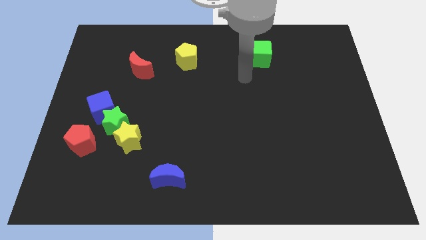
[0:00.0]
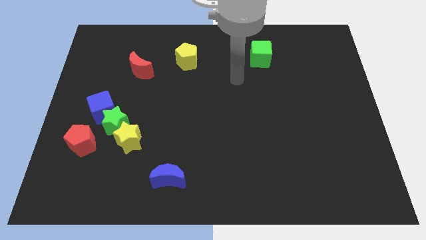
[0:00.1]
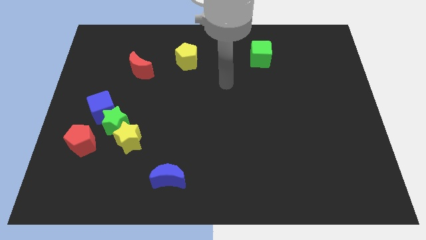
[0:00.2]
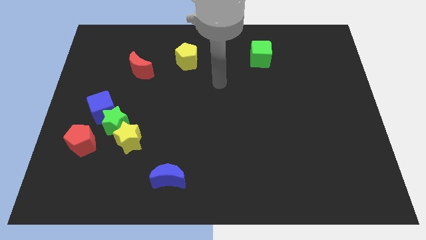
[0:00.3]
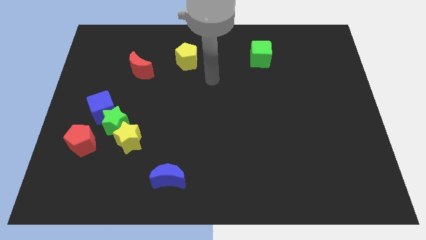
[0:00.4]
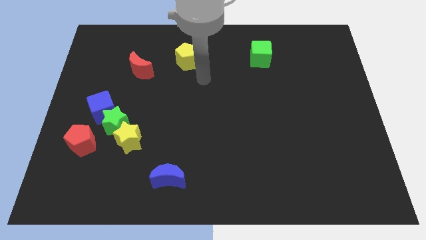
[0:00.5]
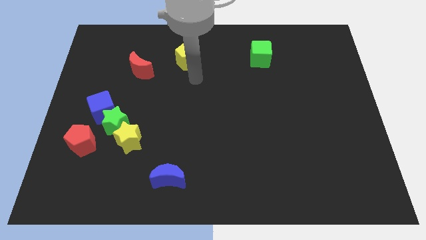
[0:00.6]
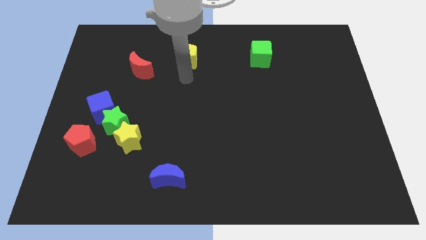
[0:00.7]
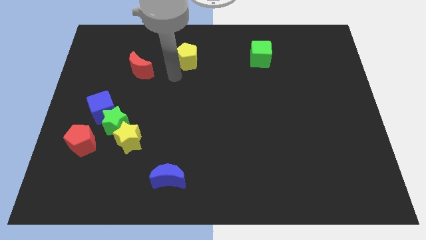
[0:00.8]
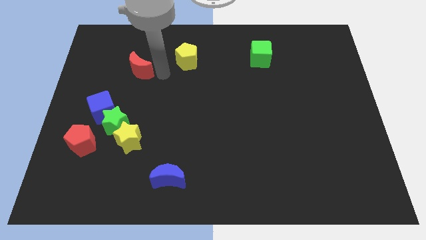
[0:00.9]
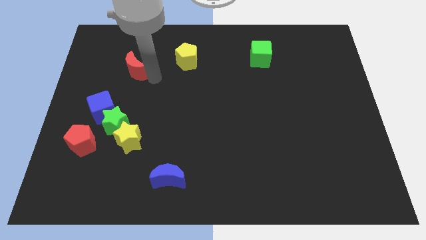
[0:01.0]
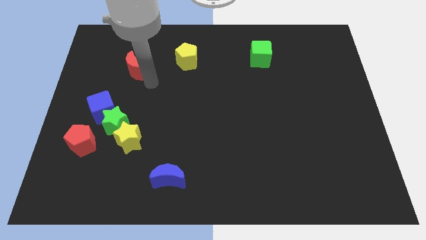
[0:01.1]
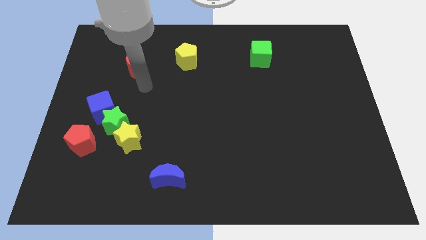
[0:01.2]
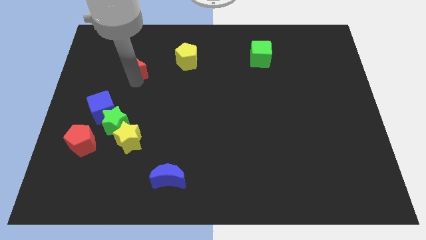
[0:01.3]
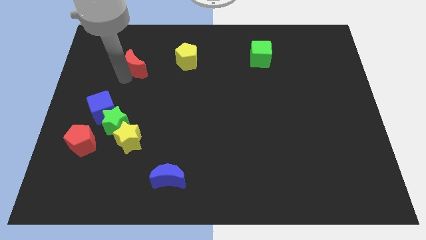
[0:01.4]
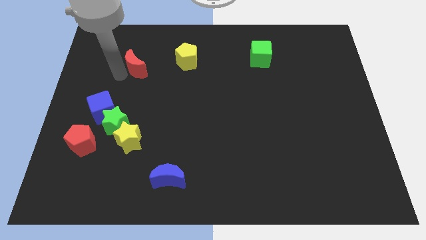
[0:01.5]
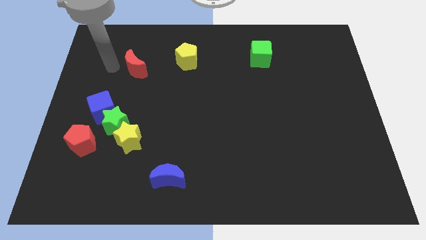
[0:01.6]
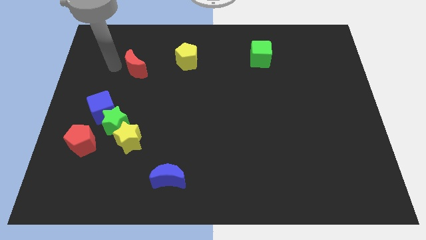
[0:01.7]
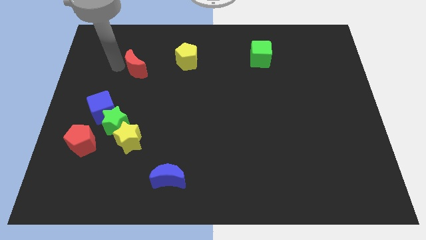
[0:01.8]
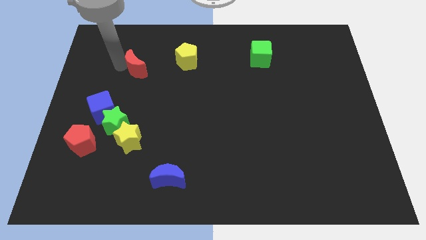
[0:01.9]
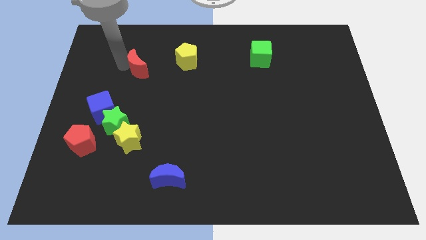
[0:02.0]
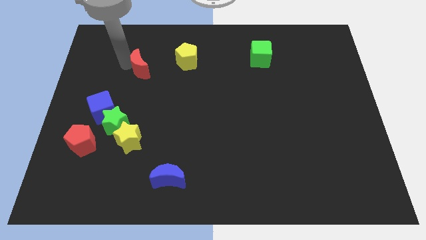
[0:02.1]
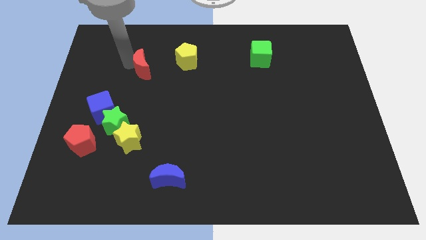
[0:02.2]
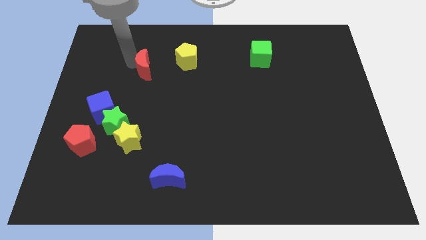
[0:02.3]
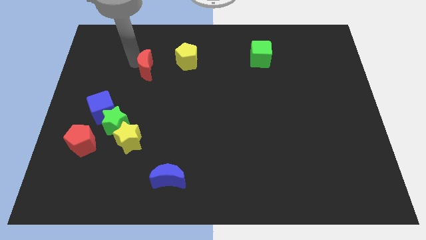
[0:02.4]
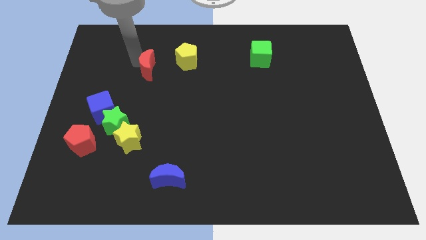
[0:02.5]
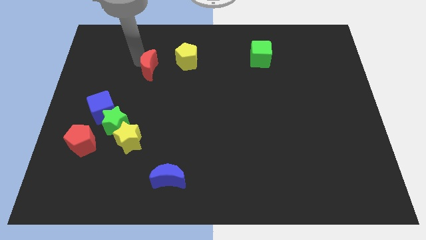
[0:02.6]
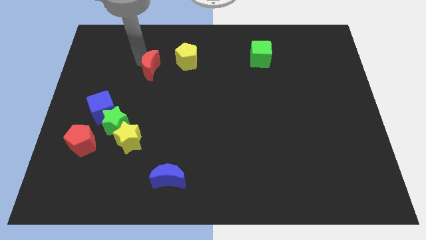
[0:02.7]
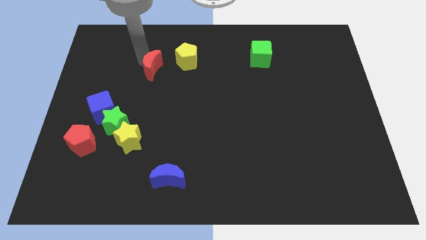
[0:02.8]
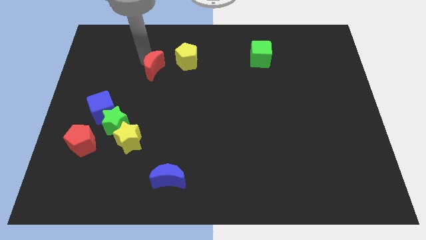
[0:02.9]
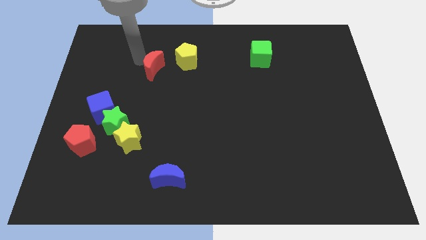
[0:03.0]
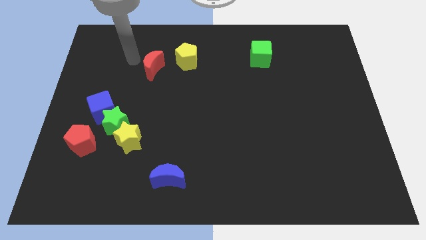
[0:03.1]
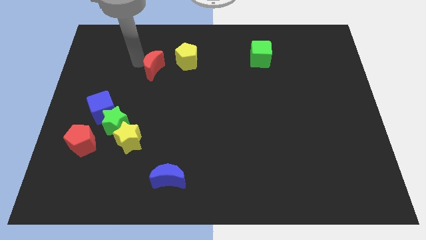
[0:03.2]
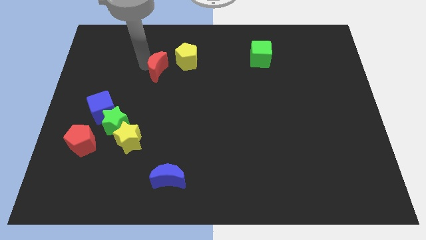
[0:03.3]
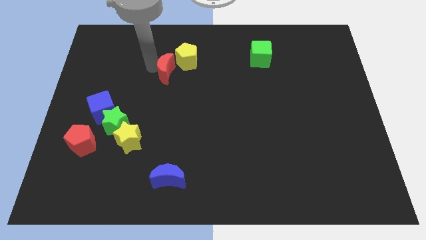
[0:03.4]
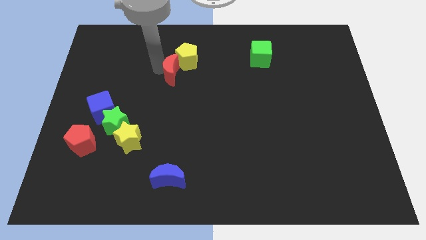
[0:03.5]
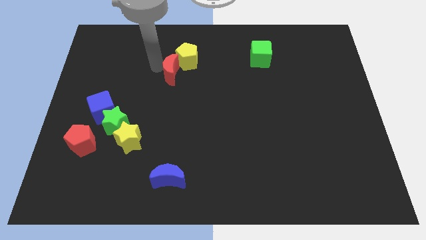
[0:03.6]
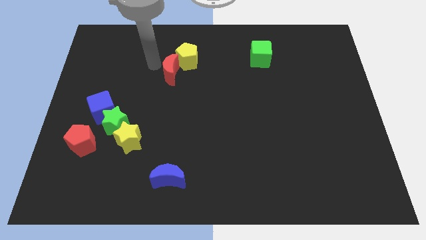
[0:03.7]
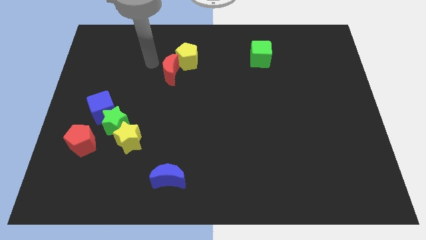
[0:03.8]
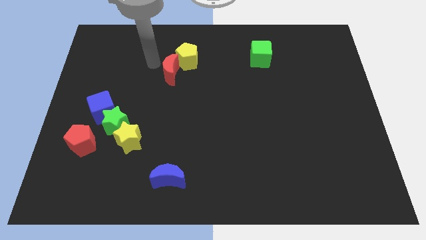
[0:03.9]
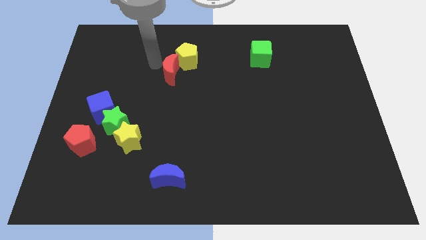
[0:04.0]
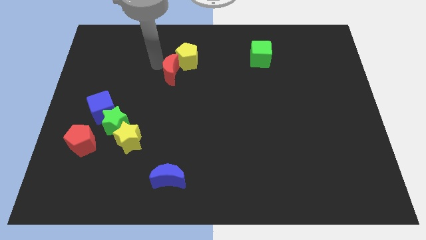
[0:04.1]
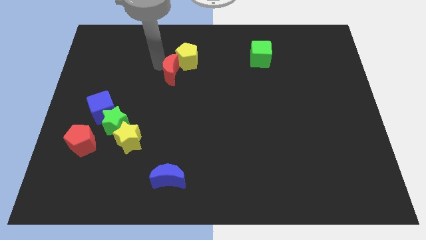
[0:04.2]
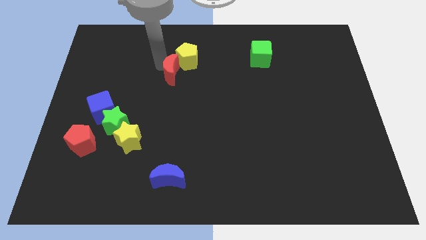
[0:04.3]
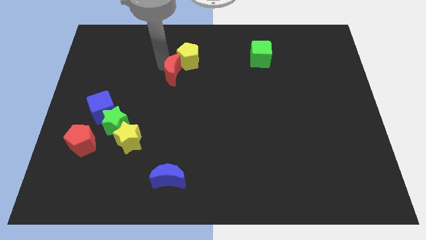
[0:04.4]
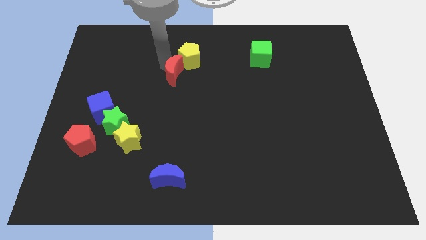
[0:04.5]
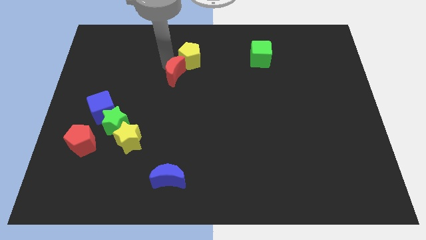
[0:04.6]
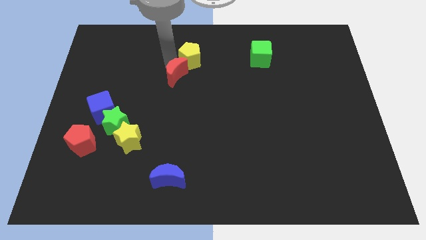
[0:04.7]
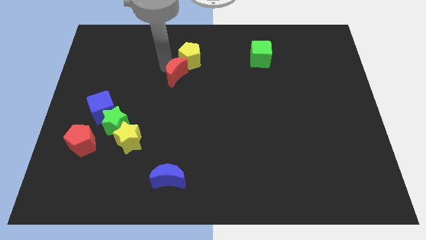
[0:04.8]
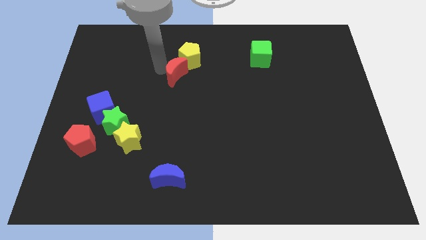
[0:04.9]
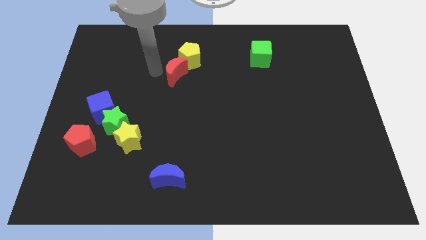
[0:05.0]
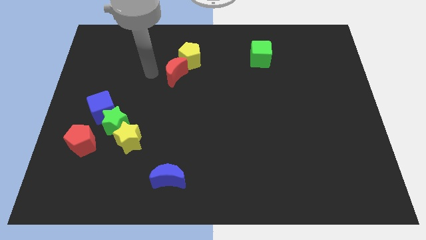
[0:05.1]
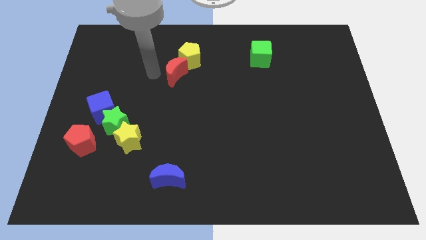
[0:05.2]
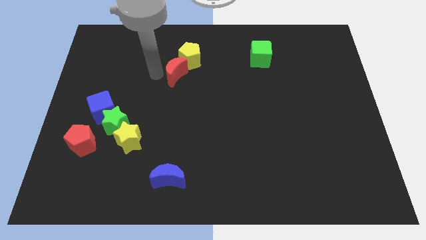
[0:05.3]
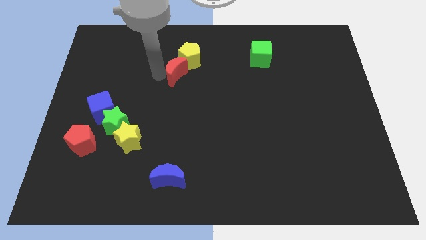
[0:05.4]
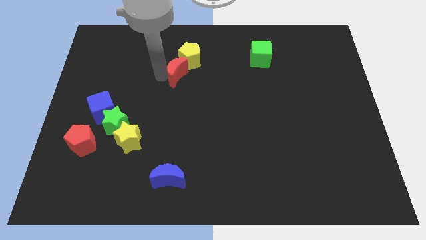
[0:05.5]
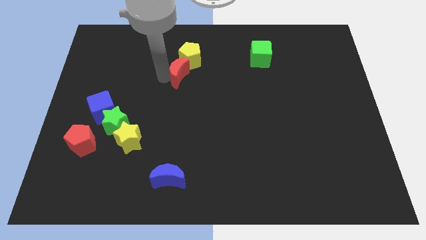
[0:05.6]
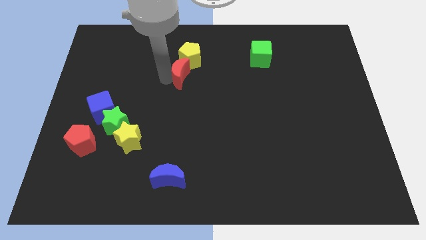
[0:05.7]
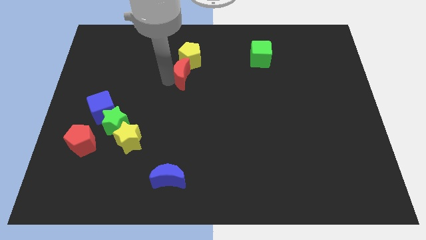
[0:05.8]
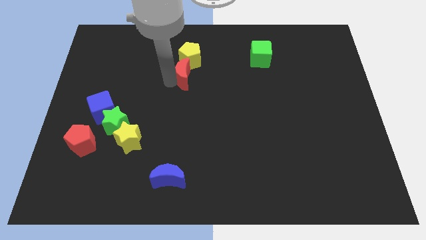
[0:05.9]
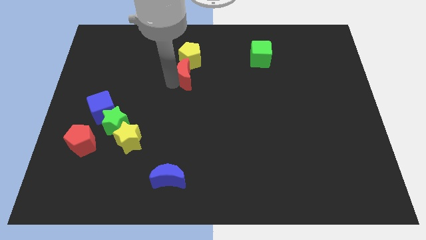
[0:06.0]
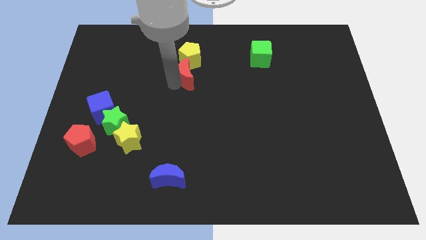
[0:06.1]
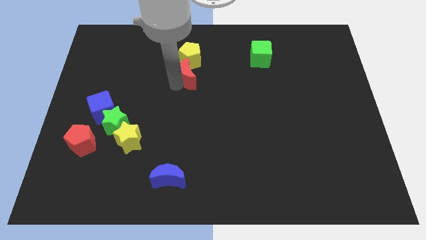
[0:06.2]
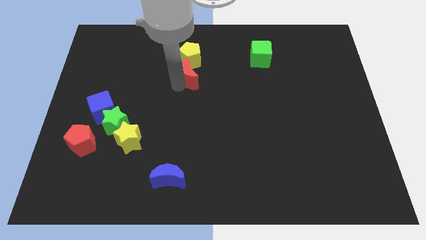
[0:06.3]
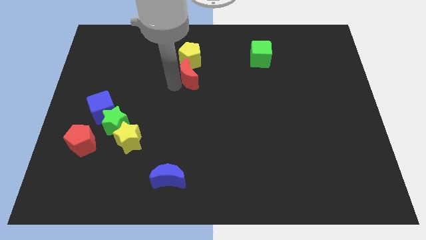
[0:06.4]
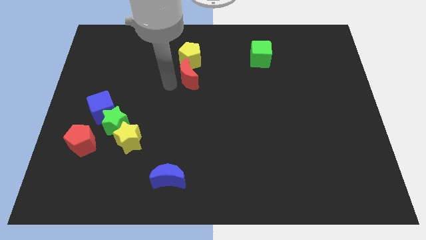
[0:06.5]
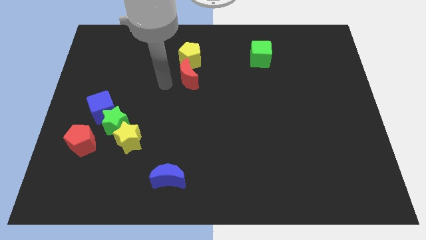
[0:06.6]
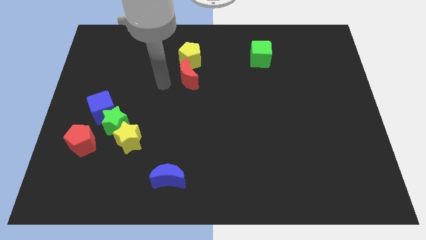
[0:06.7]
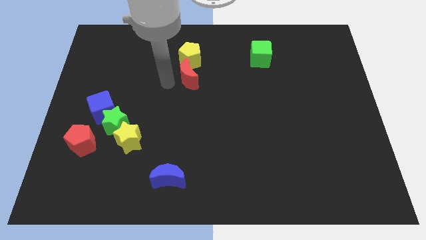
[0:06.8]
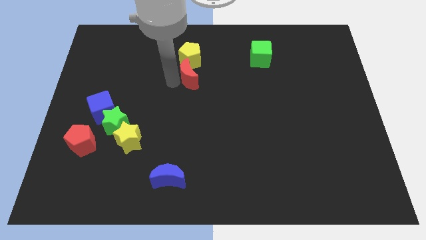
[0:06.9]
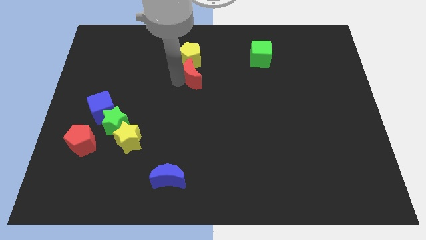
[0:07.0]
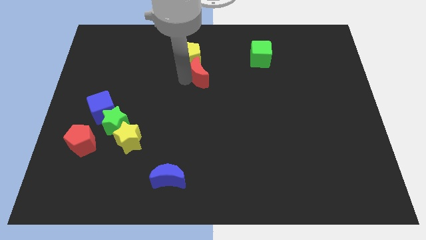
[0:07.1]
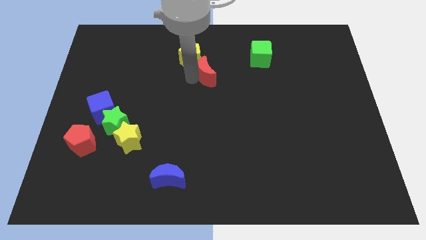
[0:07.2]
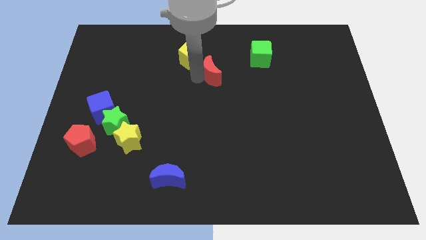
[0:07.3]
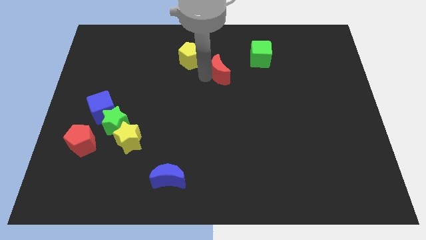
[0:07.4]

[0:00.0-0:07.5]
slide the red moon to the right
